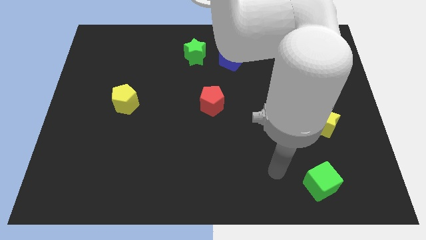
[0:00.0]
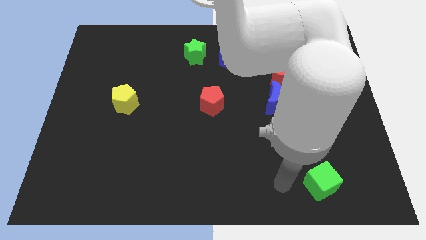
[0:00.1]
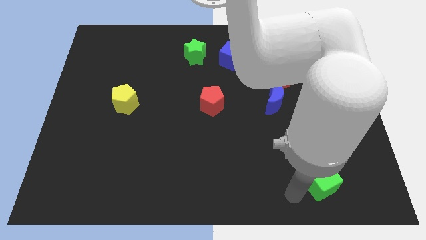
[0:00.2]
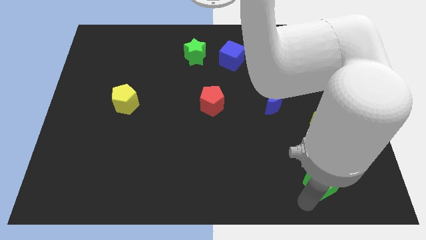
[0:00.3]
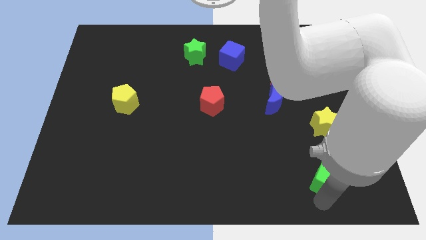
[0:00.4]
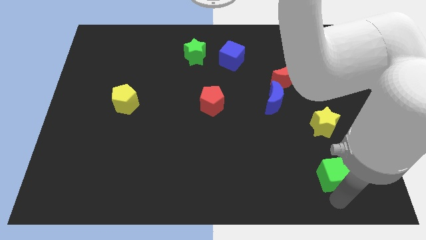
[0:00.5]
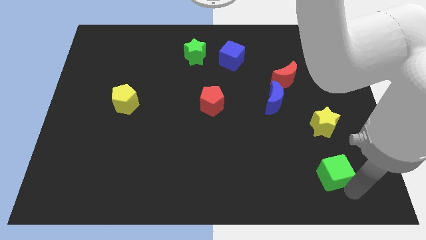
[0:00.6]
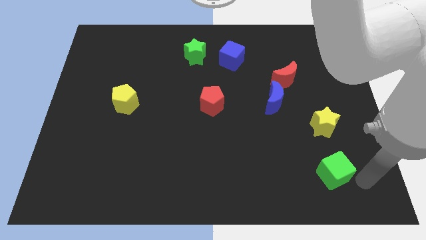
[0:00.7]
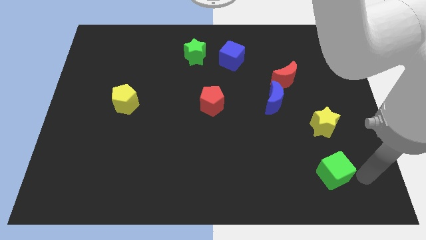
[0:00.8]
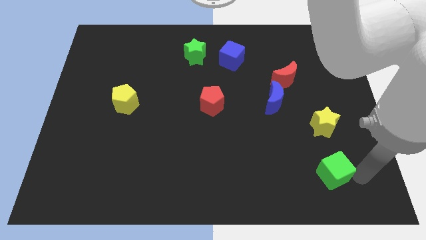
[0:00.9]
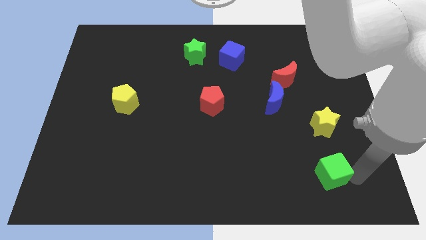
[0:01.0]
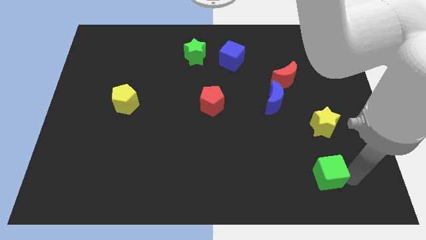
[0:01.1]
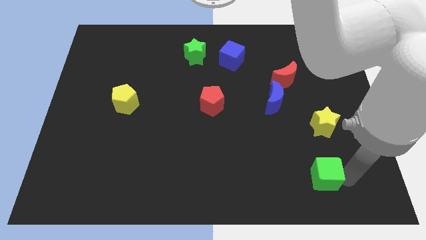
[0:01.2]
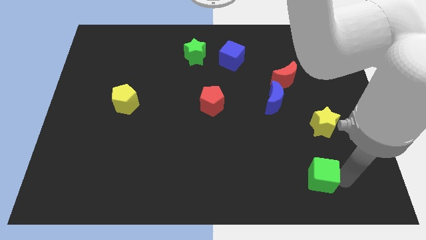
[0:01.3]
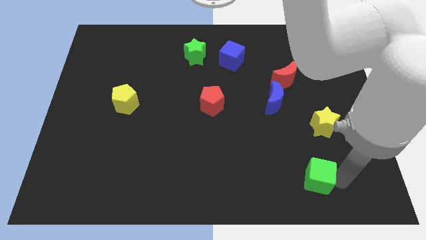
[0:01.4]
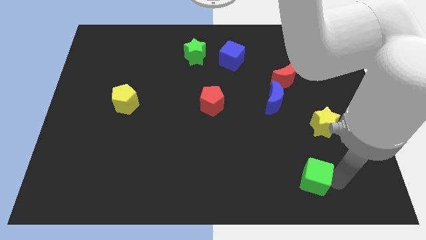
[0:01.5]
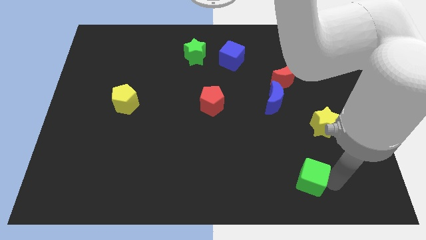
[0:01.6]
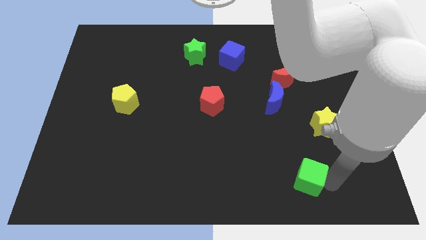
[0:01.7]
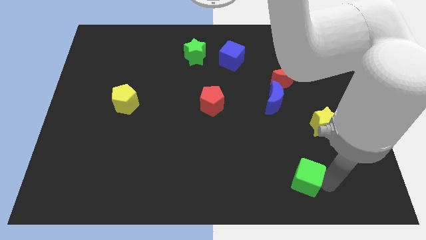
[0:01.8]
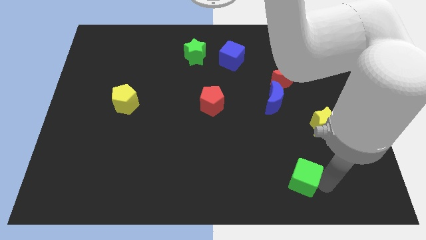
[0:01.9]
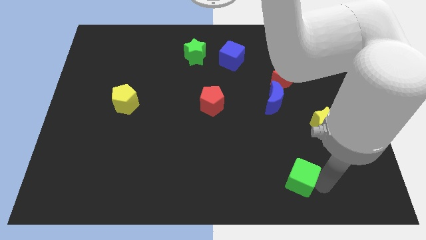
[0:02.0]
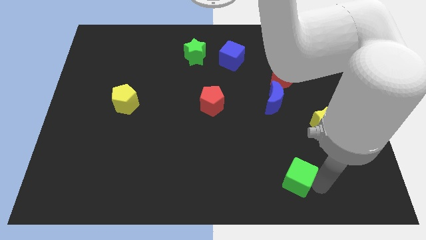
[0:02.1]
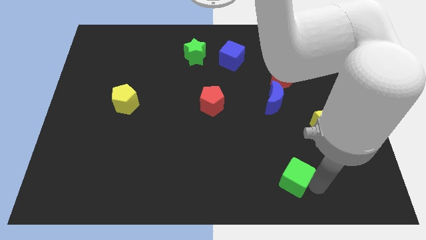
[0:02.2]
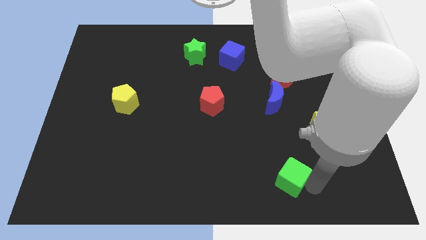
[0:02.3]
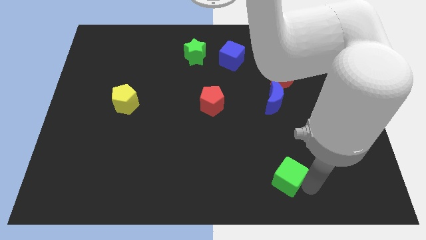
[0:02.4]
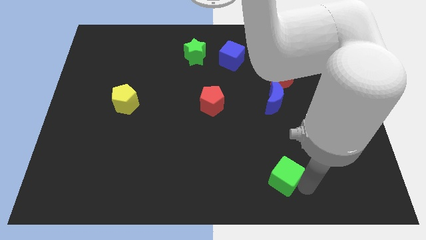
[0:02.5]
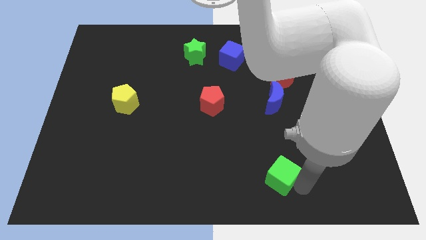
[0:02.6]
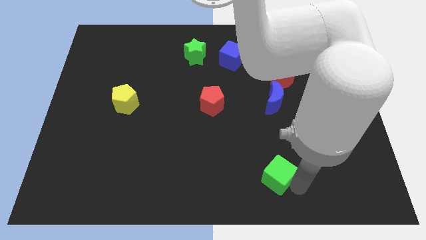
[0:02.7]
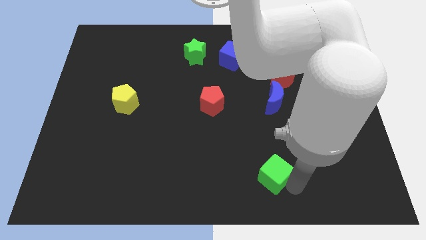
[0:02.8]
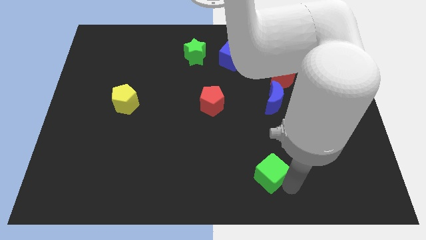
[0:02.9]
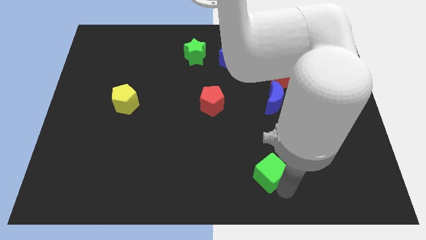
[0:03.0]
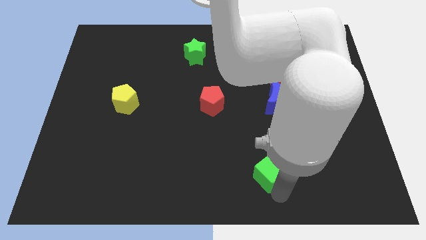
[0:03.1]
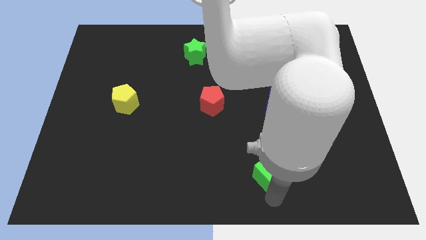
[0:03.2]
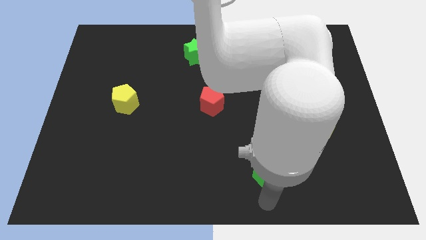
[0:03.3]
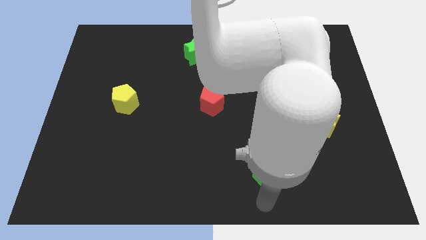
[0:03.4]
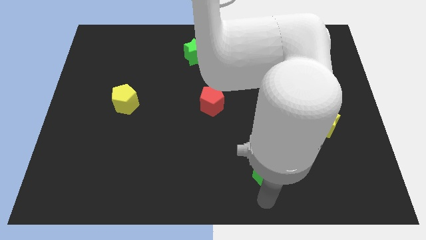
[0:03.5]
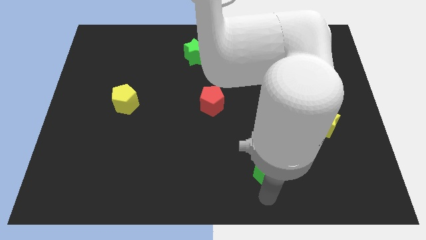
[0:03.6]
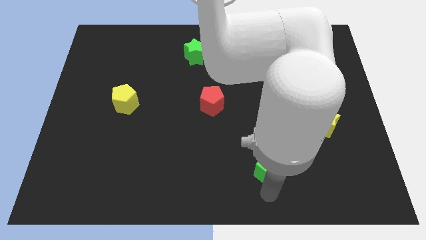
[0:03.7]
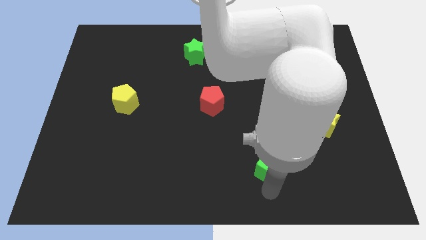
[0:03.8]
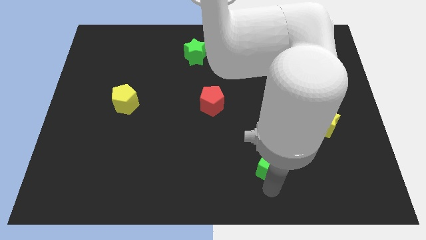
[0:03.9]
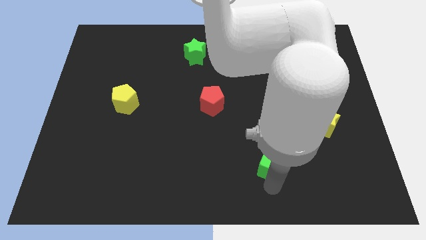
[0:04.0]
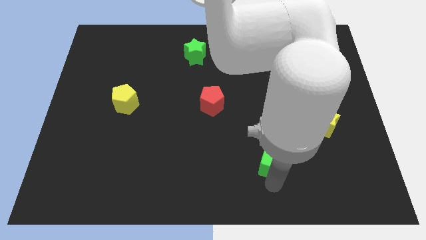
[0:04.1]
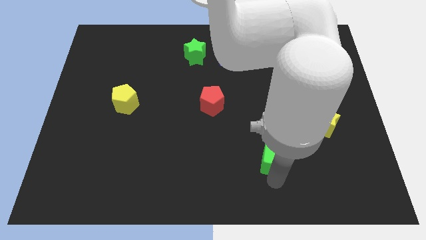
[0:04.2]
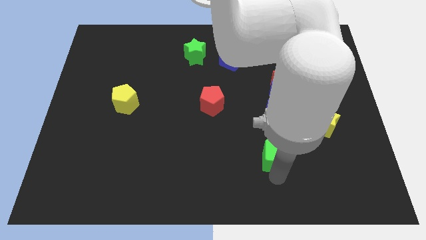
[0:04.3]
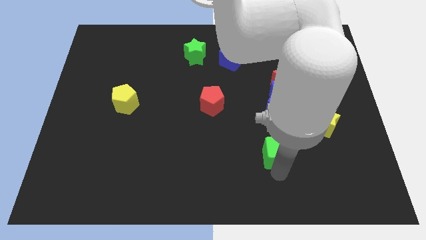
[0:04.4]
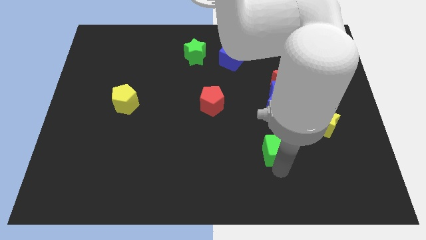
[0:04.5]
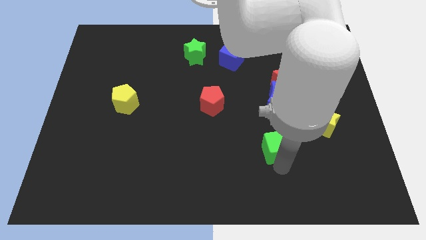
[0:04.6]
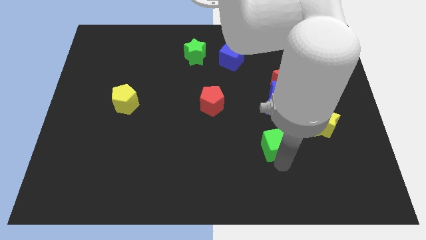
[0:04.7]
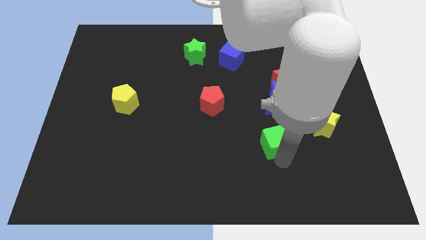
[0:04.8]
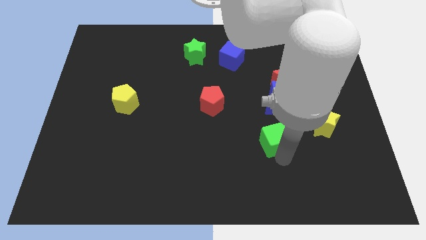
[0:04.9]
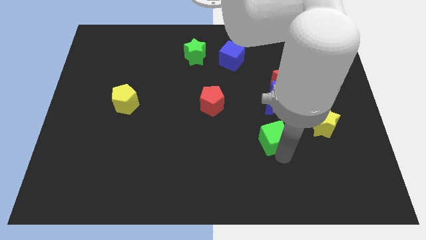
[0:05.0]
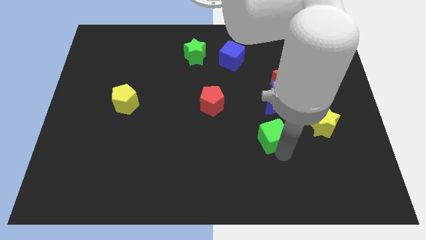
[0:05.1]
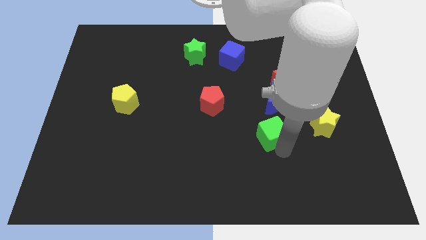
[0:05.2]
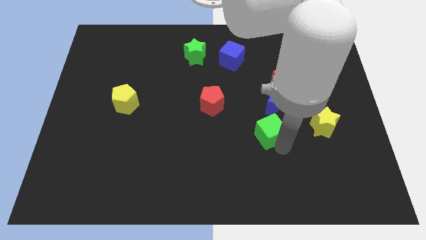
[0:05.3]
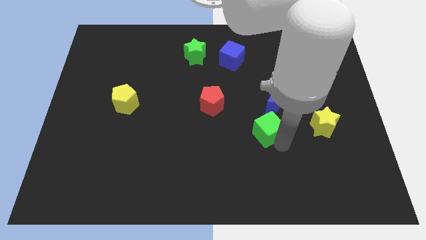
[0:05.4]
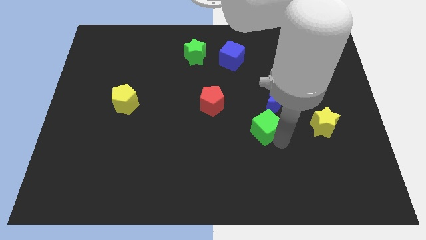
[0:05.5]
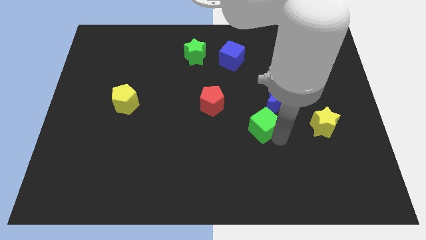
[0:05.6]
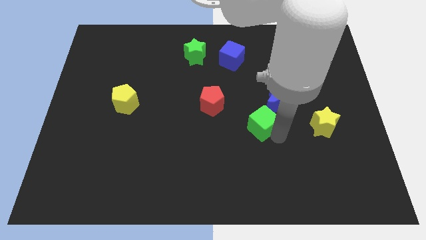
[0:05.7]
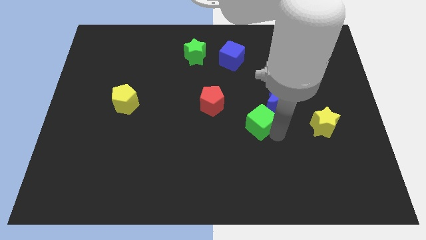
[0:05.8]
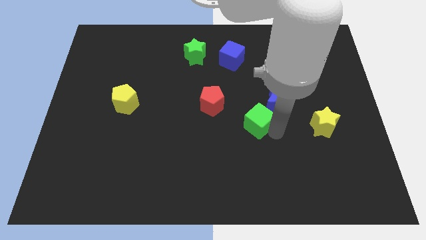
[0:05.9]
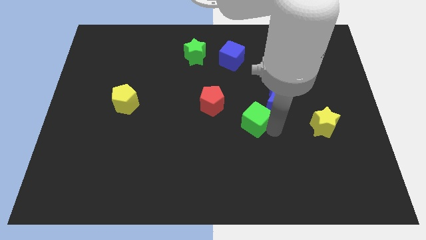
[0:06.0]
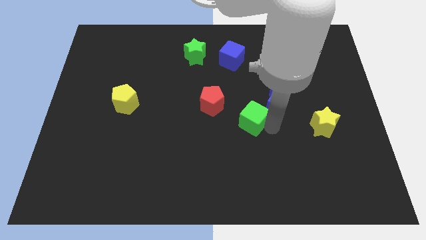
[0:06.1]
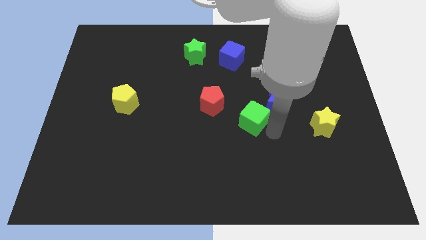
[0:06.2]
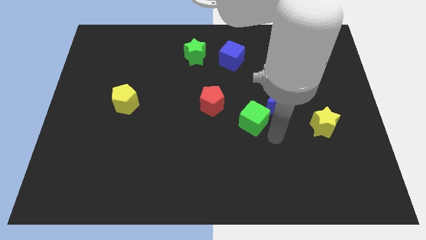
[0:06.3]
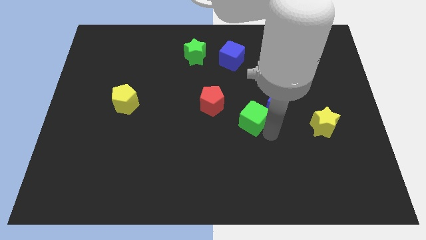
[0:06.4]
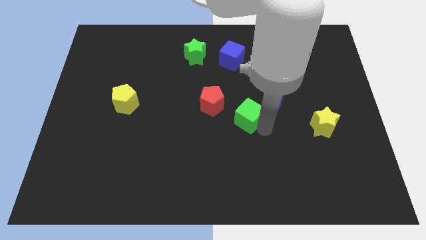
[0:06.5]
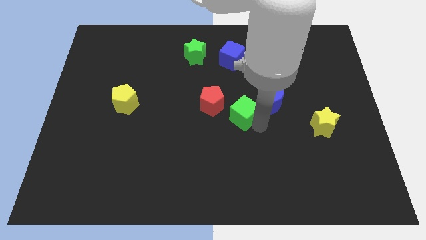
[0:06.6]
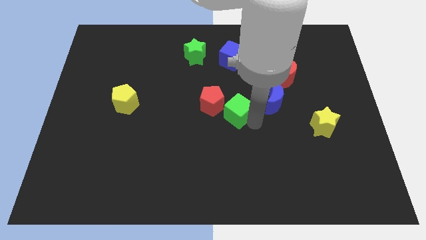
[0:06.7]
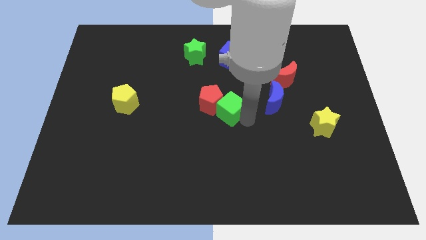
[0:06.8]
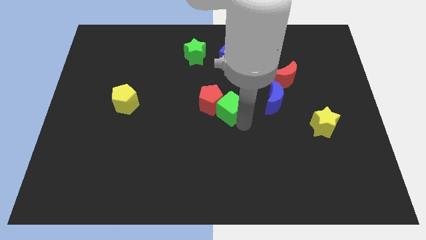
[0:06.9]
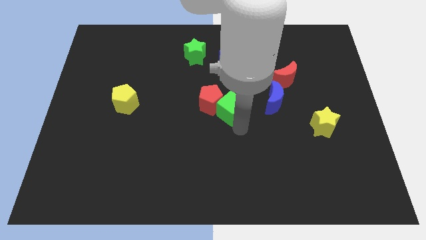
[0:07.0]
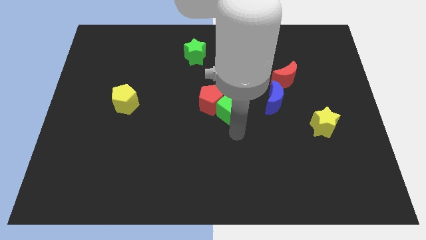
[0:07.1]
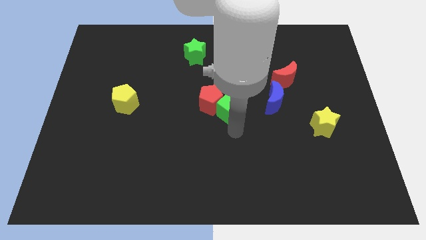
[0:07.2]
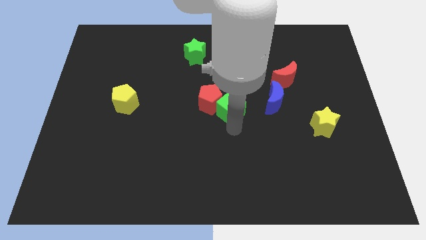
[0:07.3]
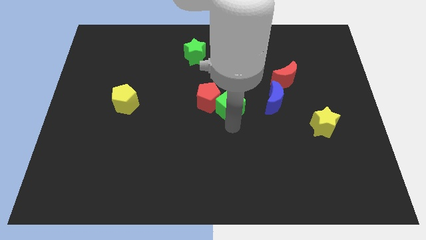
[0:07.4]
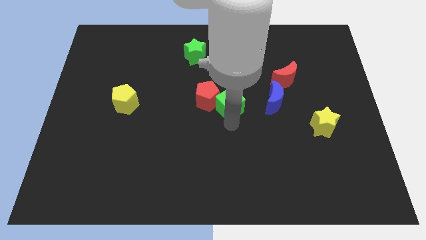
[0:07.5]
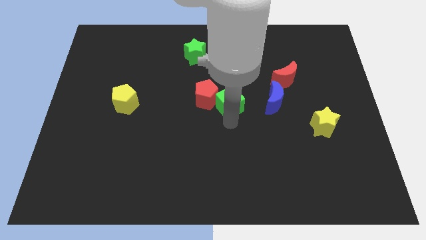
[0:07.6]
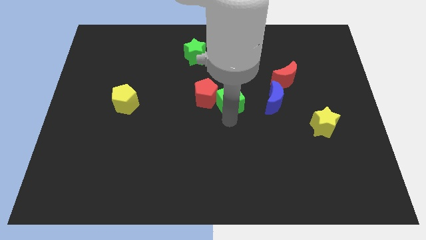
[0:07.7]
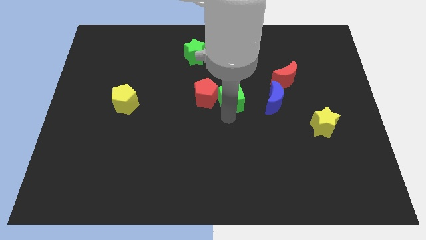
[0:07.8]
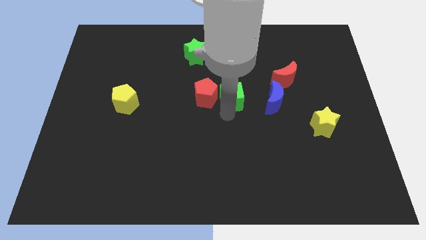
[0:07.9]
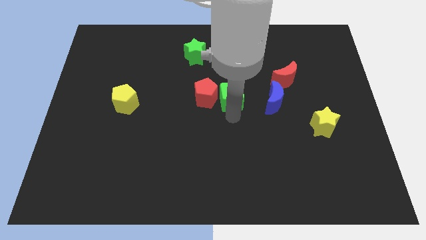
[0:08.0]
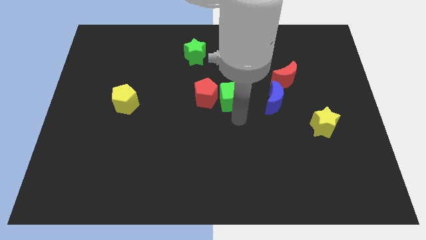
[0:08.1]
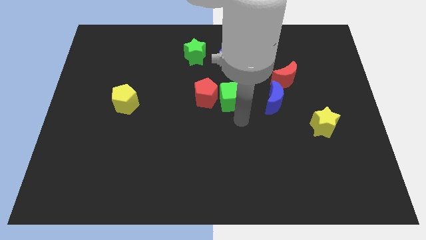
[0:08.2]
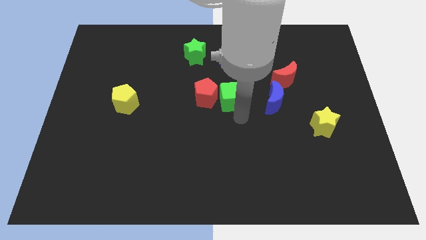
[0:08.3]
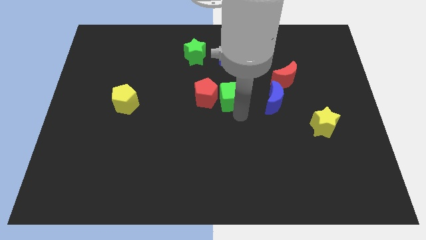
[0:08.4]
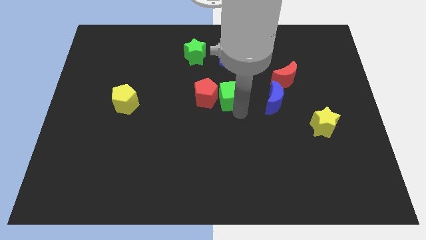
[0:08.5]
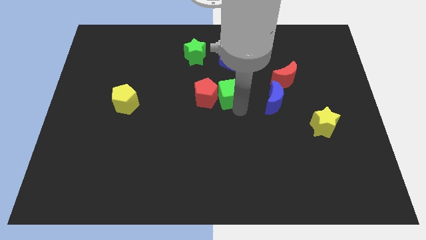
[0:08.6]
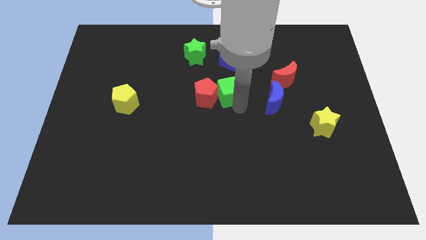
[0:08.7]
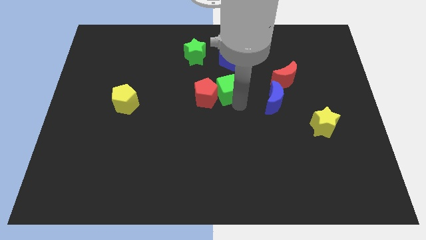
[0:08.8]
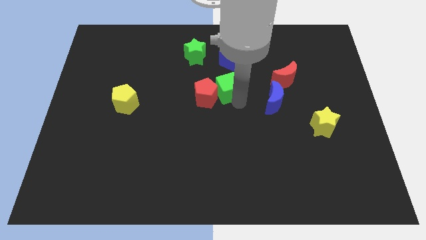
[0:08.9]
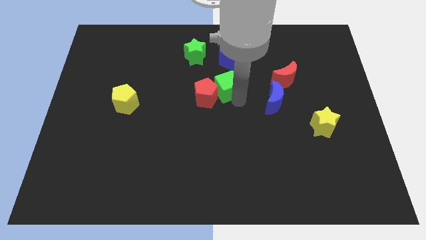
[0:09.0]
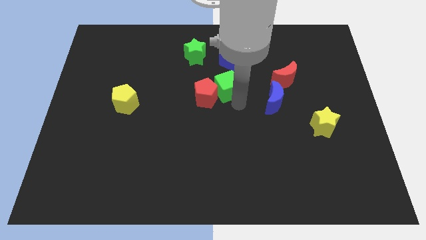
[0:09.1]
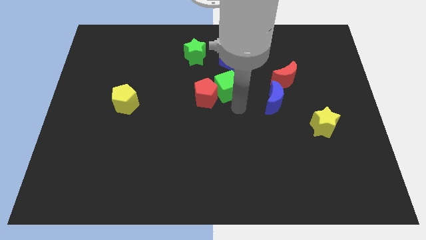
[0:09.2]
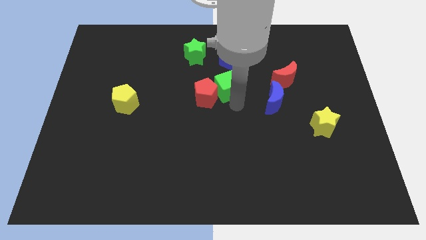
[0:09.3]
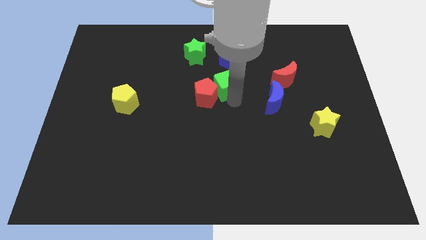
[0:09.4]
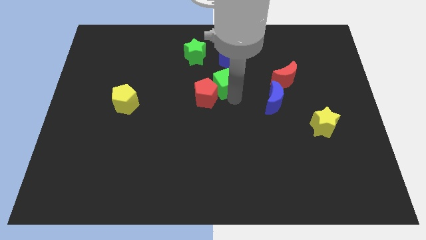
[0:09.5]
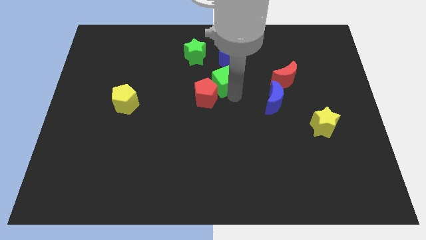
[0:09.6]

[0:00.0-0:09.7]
put the green cube to the bottom left side of the blue cube
